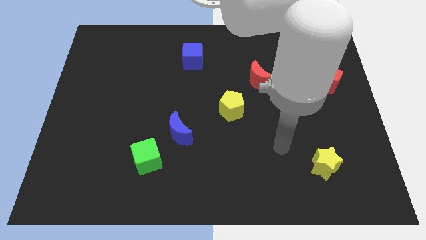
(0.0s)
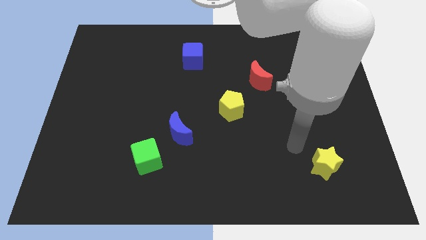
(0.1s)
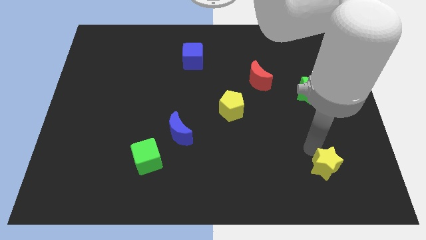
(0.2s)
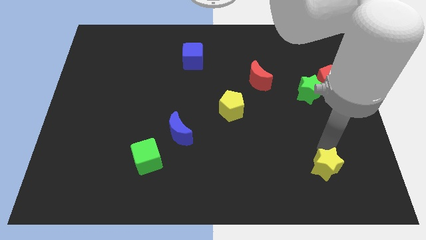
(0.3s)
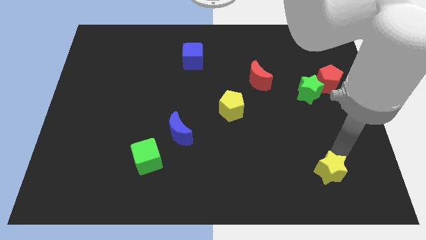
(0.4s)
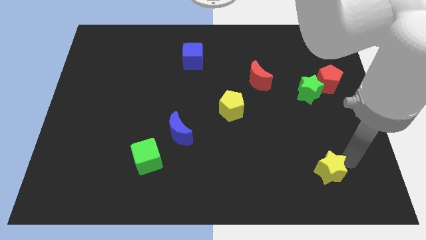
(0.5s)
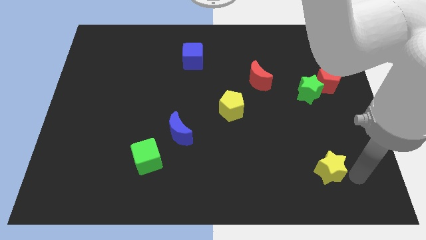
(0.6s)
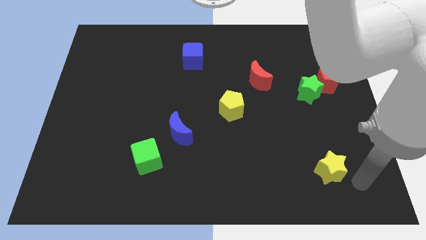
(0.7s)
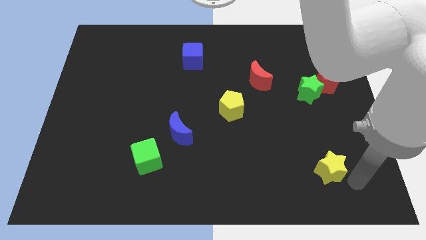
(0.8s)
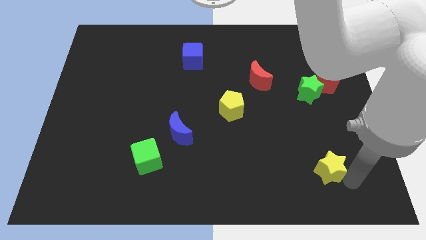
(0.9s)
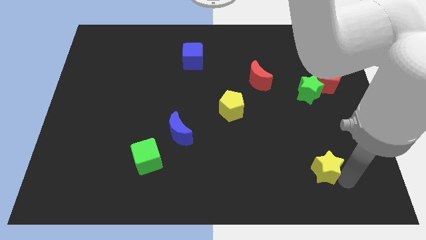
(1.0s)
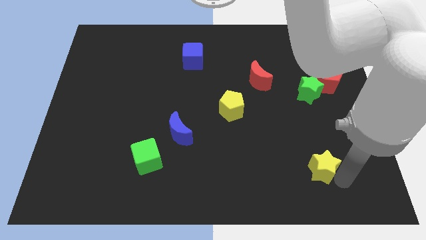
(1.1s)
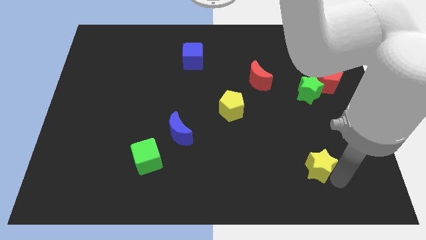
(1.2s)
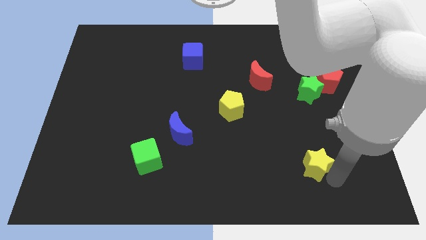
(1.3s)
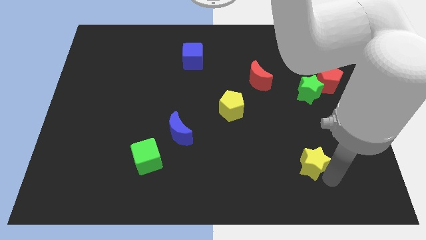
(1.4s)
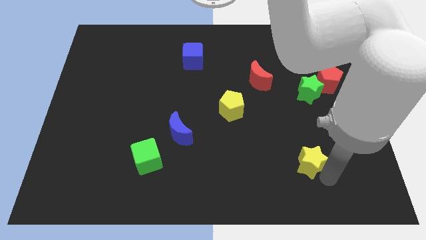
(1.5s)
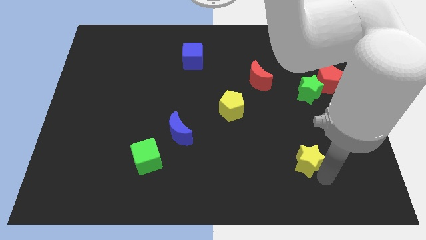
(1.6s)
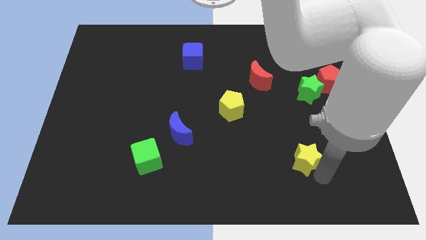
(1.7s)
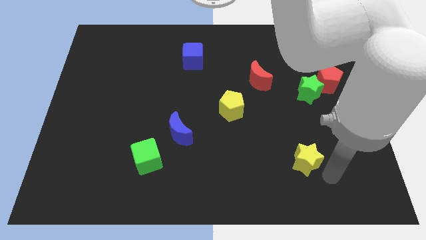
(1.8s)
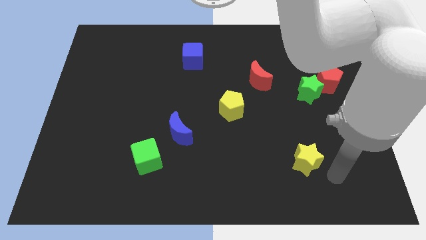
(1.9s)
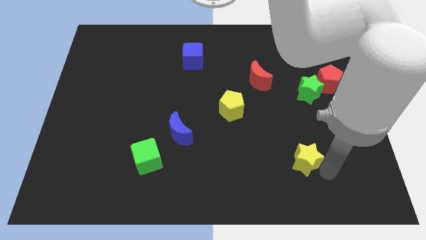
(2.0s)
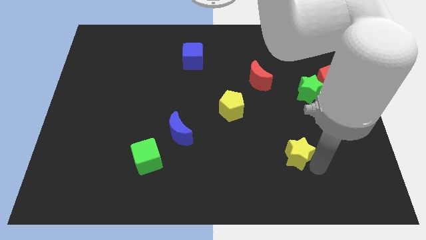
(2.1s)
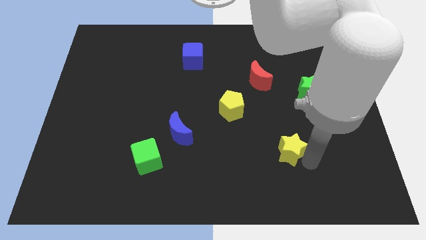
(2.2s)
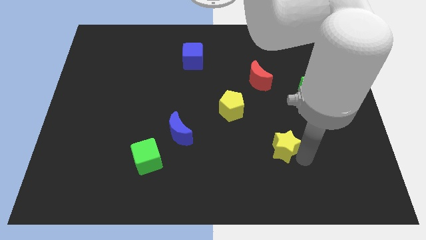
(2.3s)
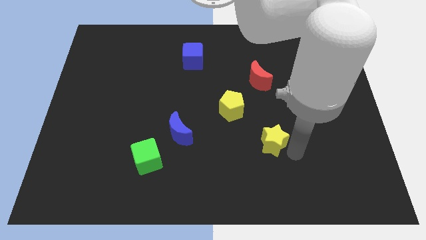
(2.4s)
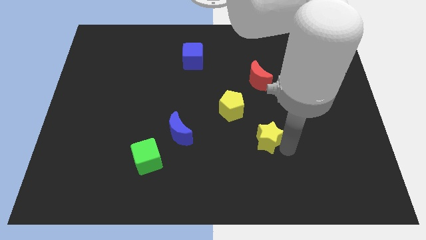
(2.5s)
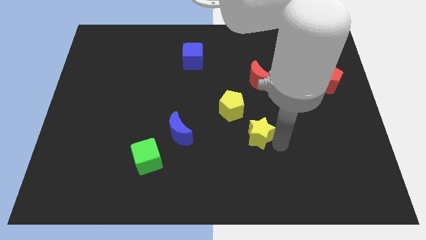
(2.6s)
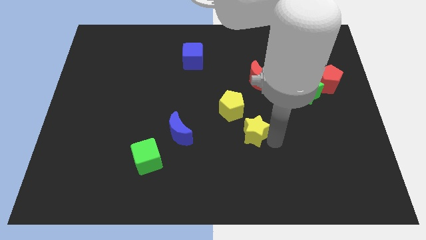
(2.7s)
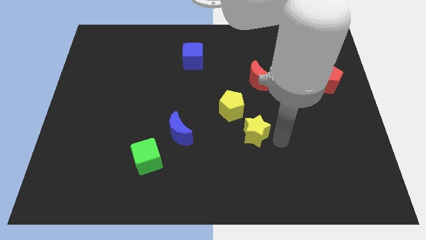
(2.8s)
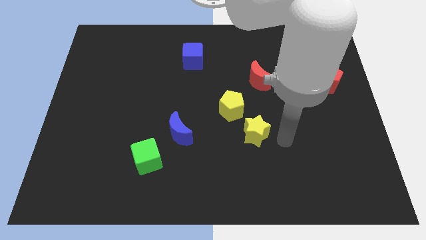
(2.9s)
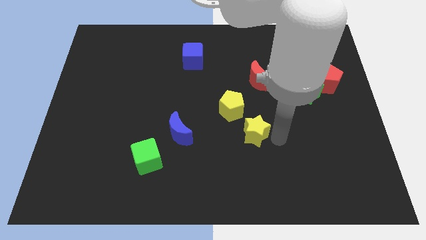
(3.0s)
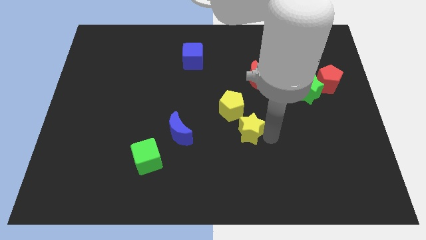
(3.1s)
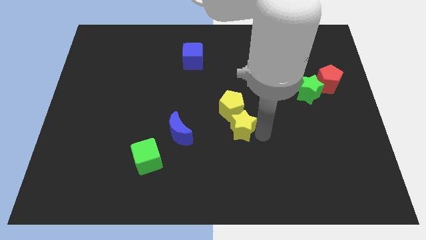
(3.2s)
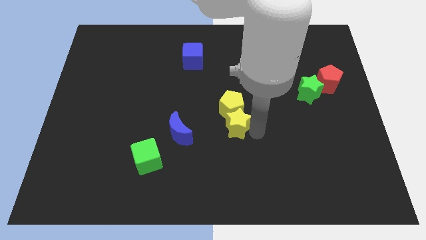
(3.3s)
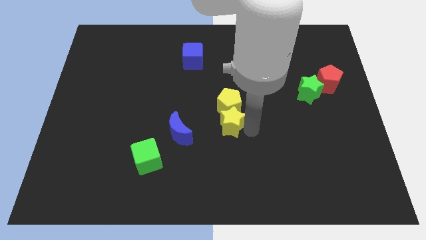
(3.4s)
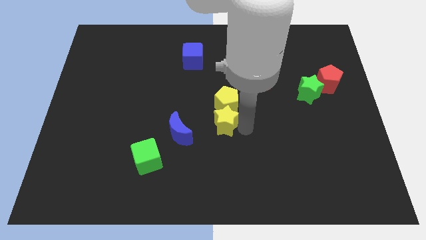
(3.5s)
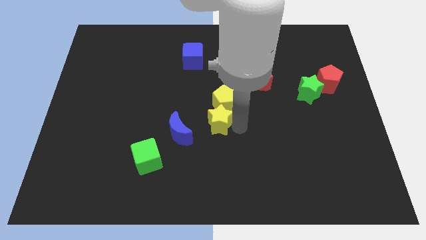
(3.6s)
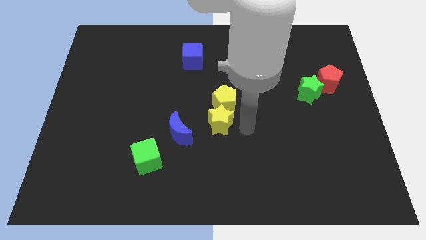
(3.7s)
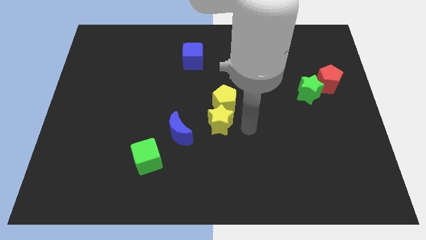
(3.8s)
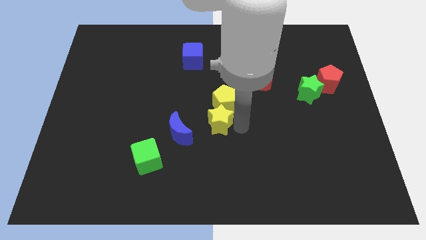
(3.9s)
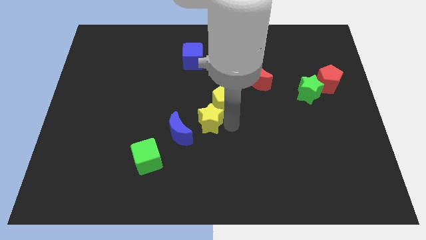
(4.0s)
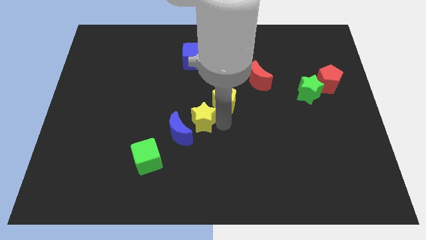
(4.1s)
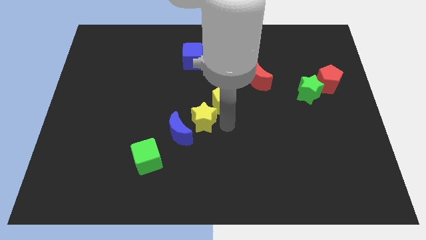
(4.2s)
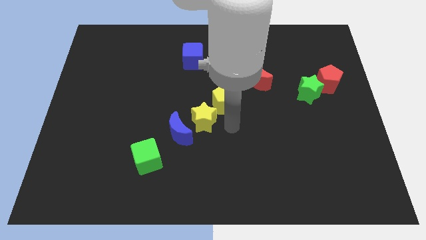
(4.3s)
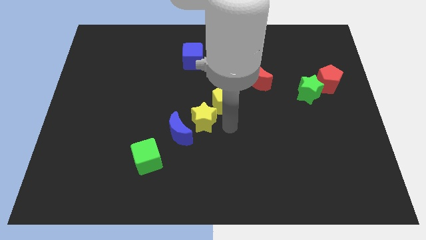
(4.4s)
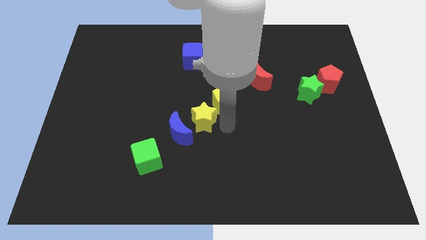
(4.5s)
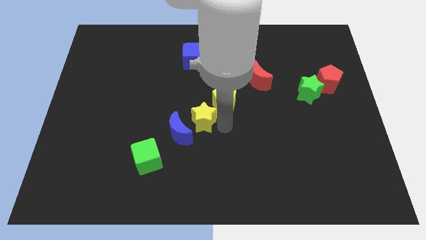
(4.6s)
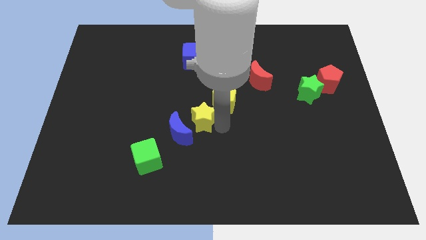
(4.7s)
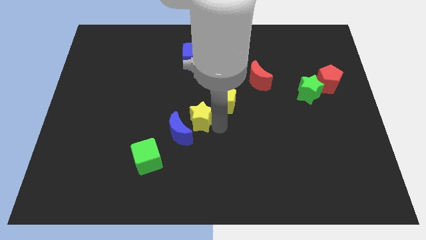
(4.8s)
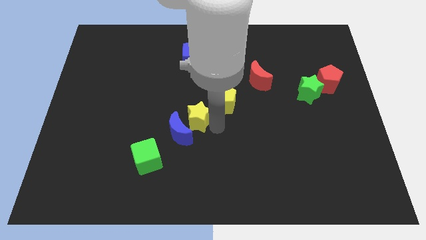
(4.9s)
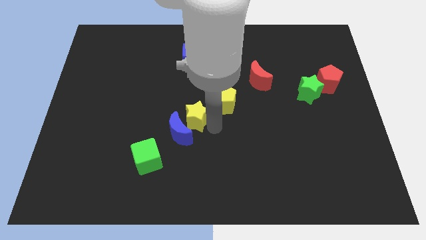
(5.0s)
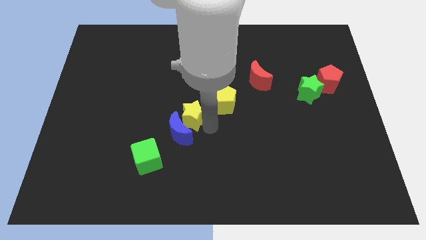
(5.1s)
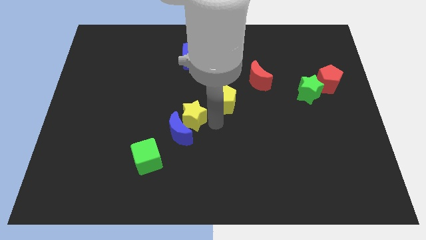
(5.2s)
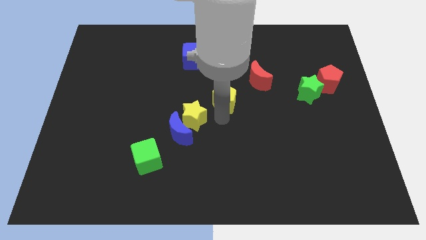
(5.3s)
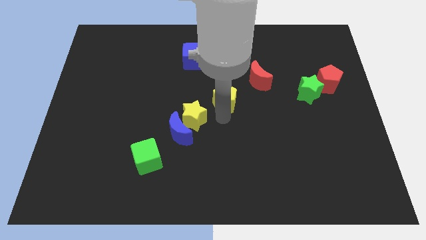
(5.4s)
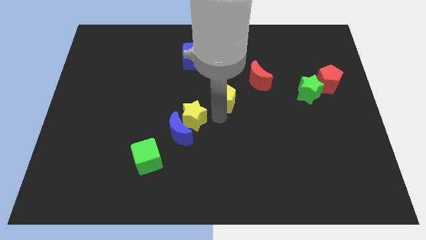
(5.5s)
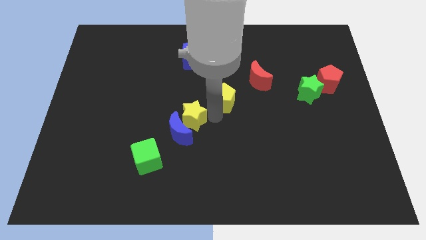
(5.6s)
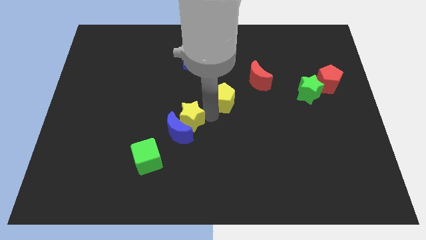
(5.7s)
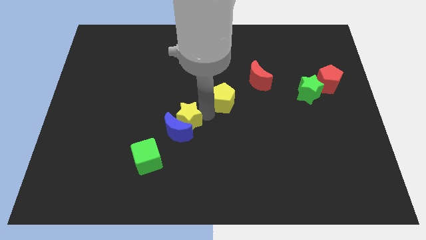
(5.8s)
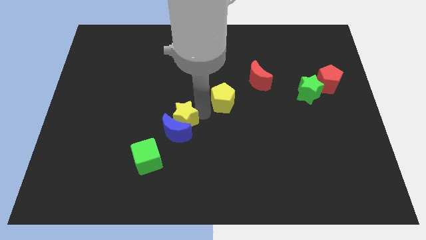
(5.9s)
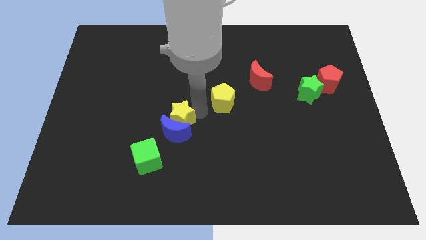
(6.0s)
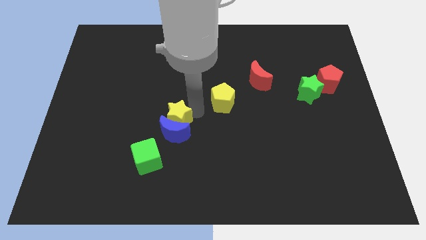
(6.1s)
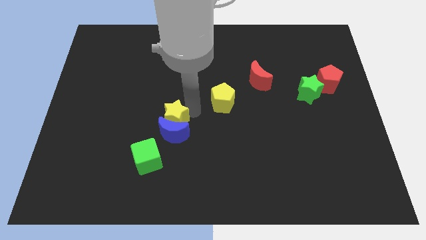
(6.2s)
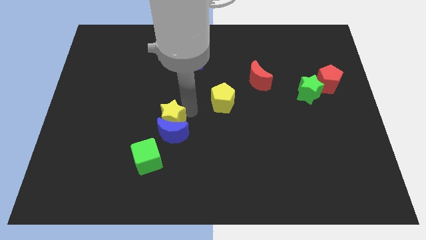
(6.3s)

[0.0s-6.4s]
move the yellow star to the top of the green cube
